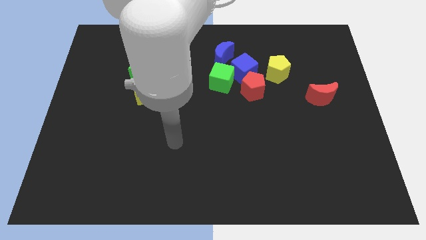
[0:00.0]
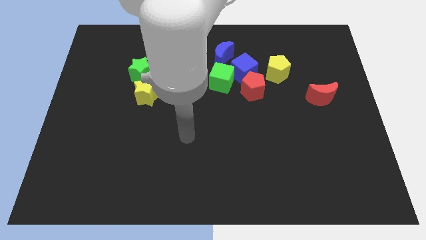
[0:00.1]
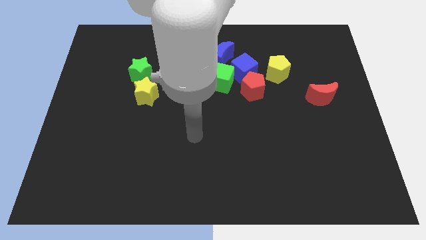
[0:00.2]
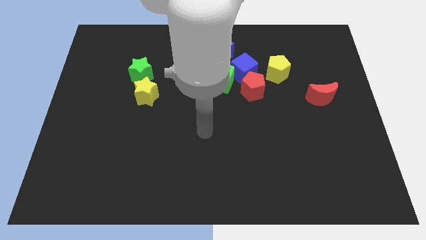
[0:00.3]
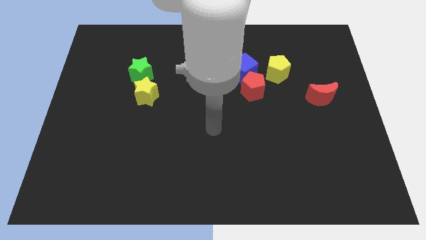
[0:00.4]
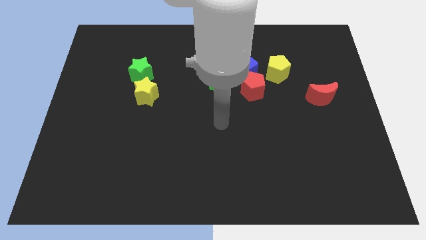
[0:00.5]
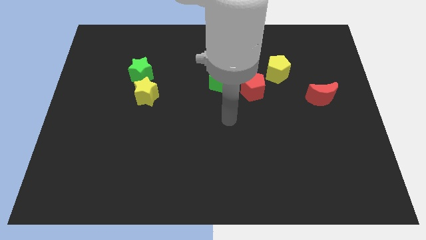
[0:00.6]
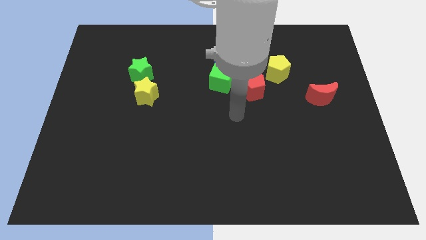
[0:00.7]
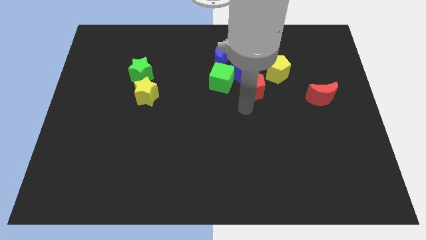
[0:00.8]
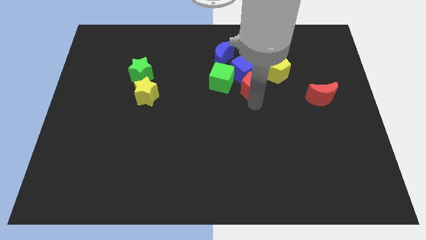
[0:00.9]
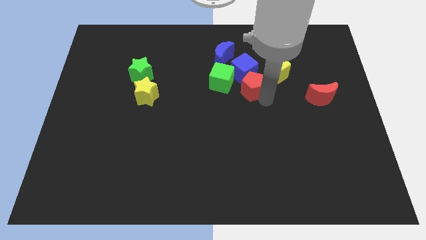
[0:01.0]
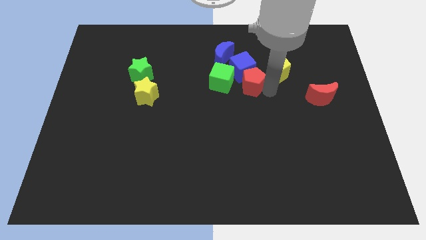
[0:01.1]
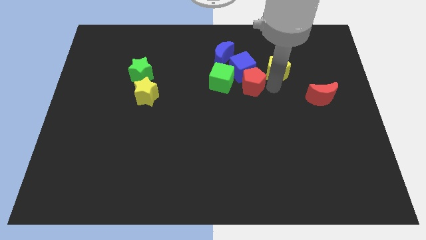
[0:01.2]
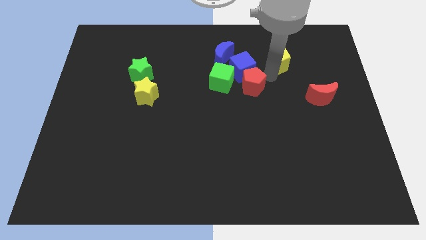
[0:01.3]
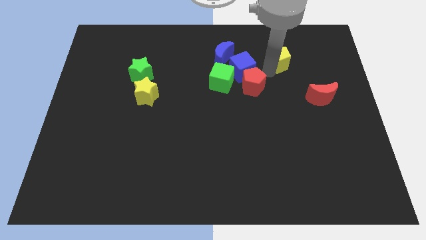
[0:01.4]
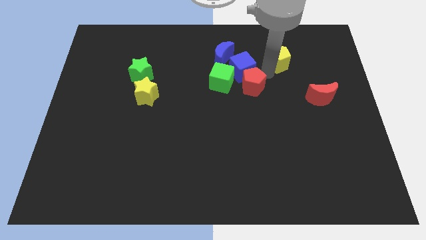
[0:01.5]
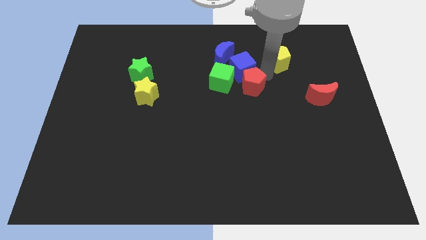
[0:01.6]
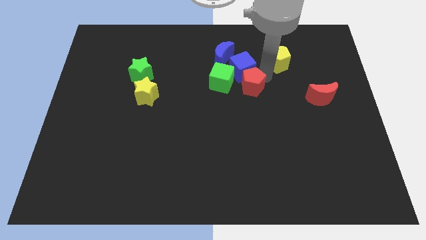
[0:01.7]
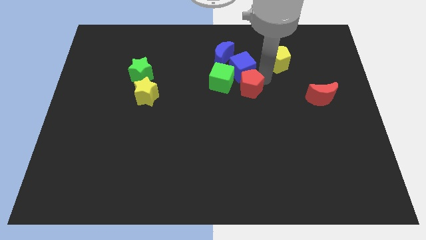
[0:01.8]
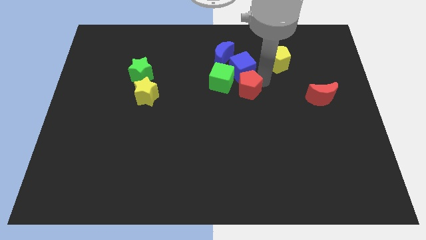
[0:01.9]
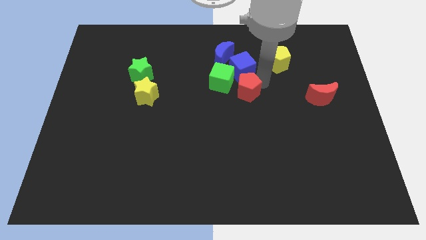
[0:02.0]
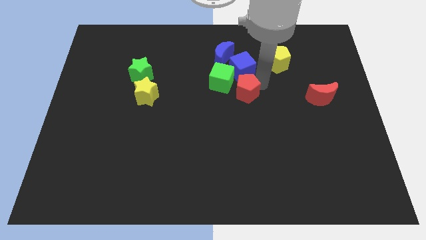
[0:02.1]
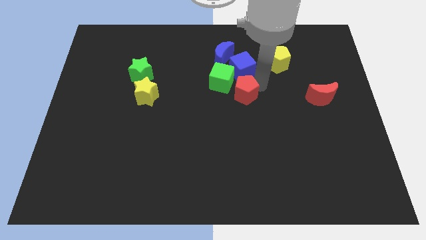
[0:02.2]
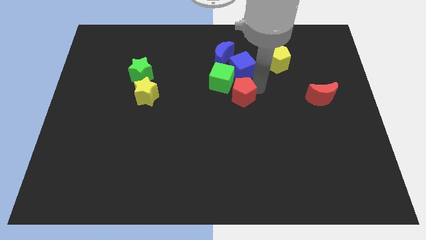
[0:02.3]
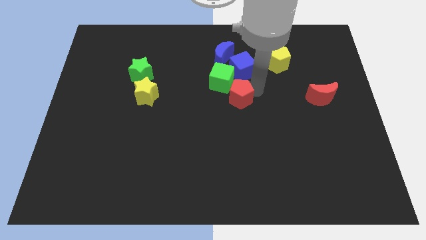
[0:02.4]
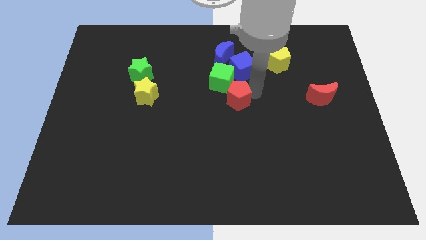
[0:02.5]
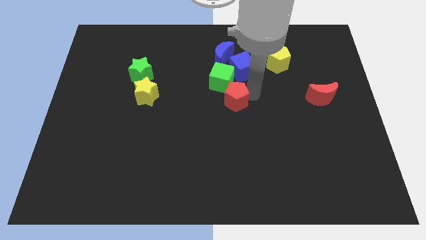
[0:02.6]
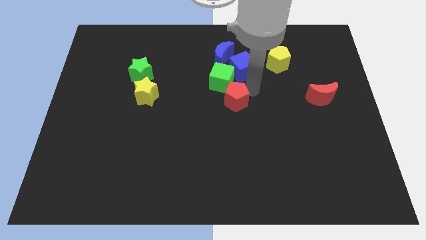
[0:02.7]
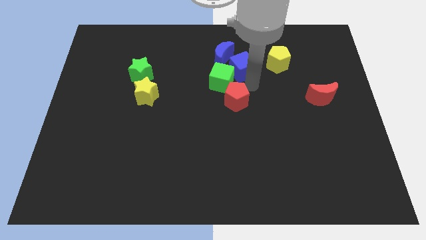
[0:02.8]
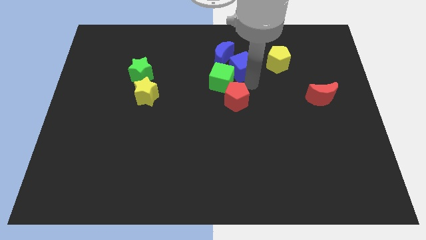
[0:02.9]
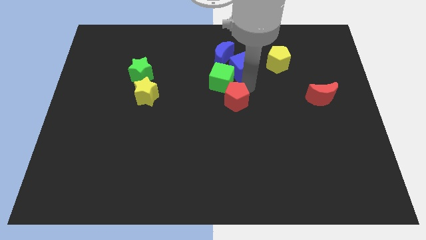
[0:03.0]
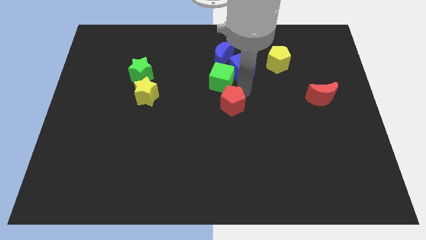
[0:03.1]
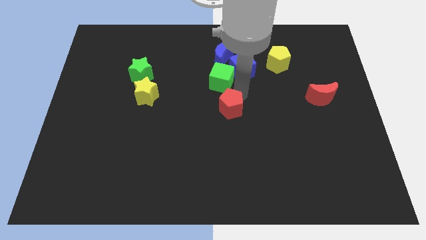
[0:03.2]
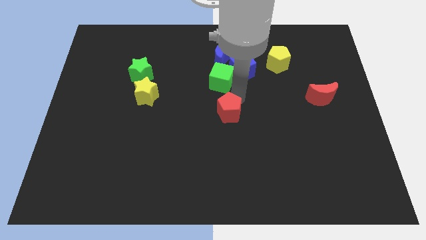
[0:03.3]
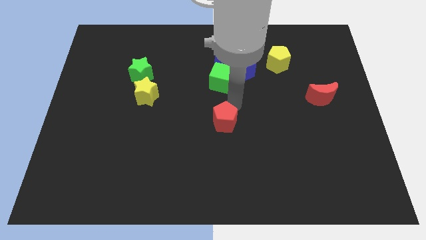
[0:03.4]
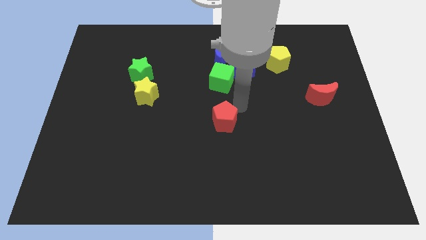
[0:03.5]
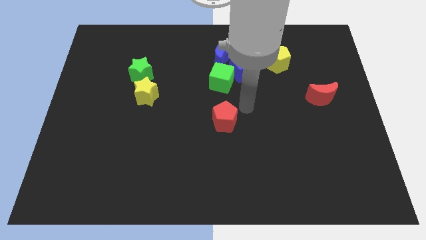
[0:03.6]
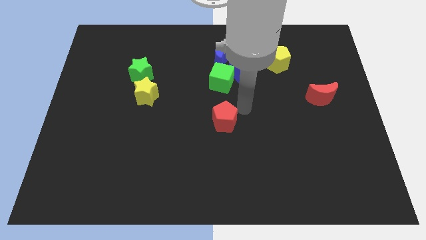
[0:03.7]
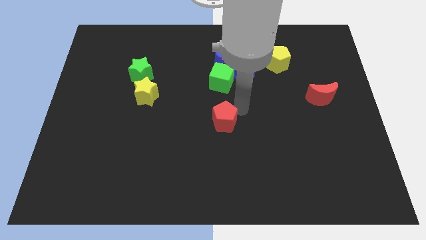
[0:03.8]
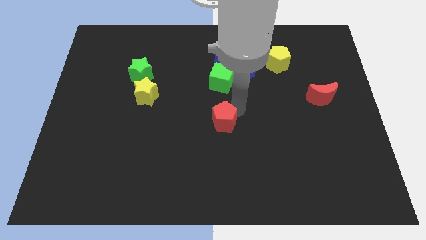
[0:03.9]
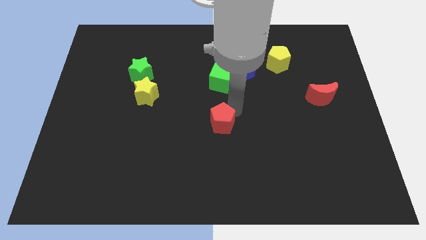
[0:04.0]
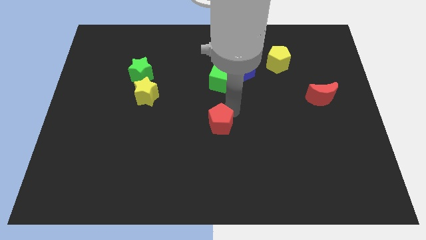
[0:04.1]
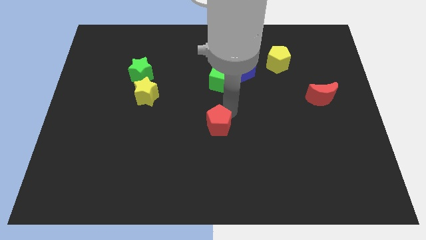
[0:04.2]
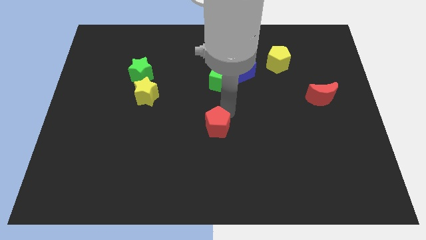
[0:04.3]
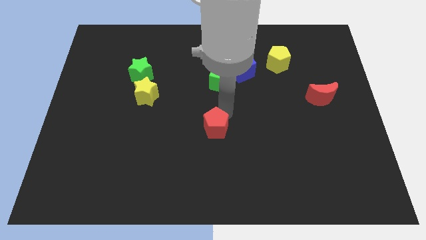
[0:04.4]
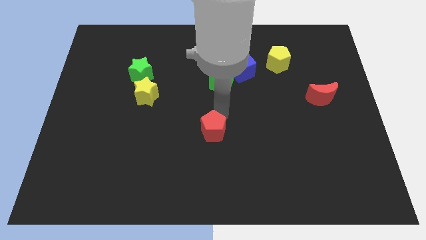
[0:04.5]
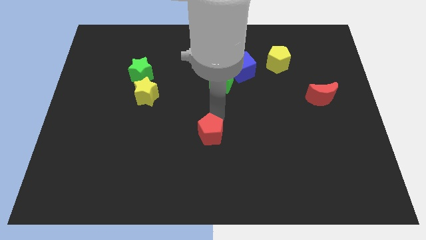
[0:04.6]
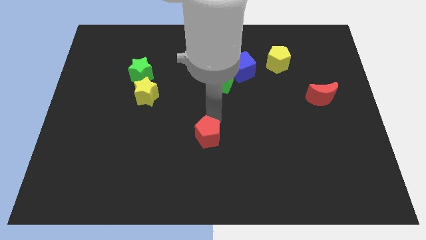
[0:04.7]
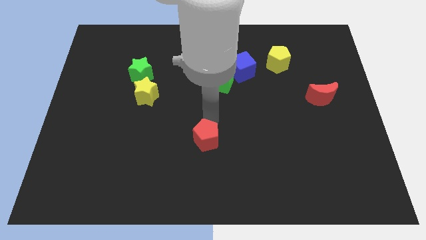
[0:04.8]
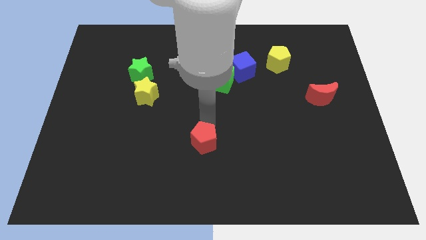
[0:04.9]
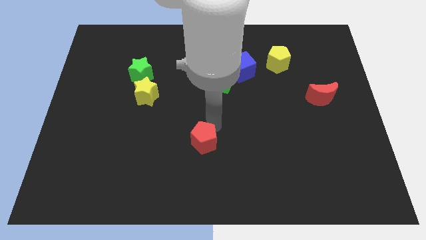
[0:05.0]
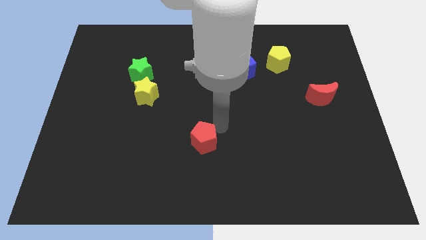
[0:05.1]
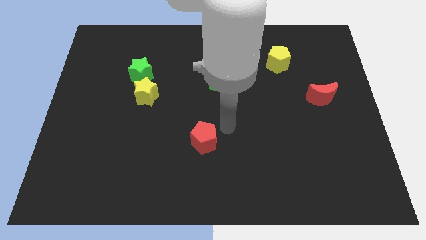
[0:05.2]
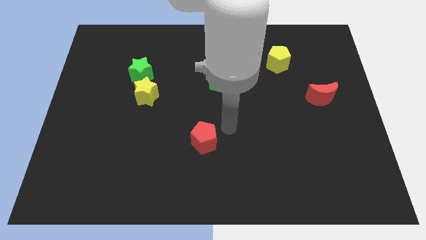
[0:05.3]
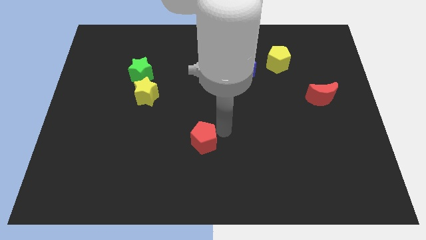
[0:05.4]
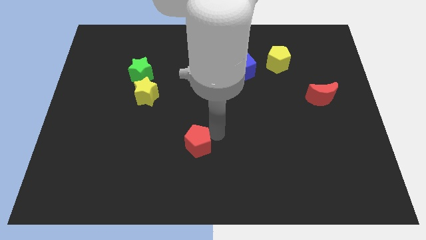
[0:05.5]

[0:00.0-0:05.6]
push the red pentagon down and then to the left

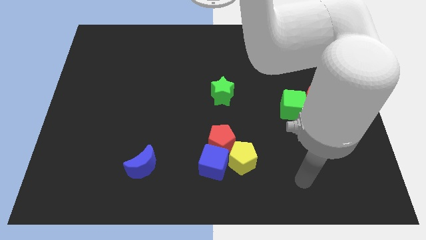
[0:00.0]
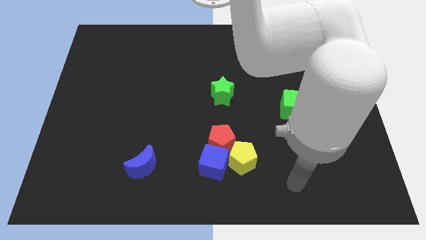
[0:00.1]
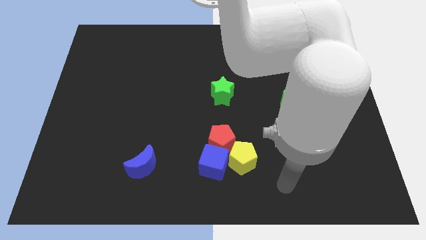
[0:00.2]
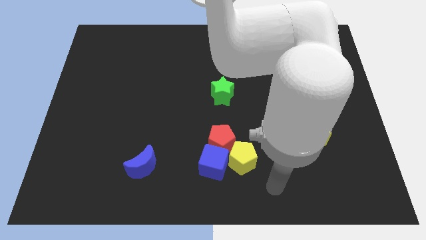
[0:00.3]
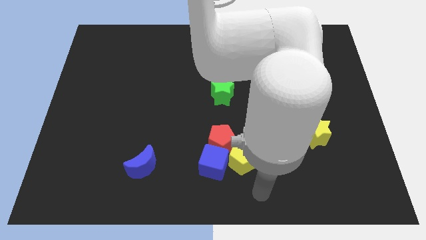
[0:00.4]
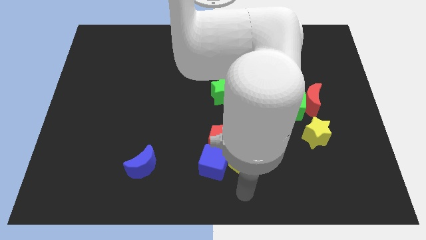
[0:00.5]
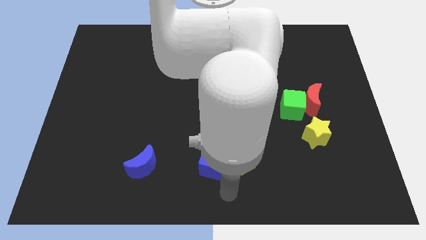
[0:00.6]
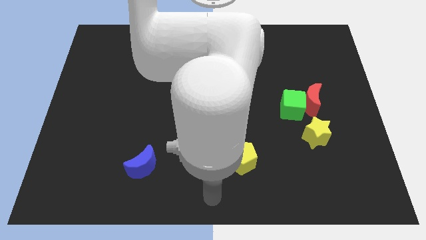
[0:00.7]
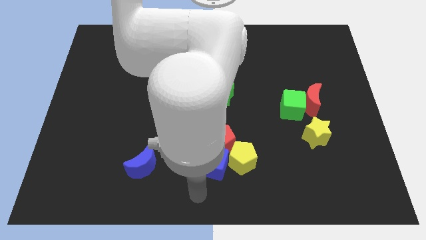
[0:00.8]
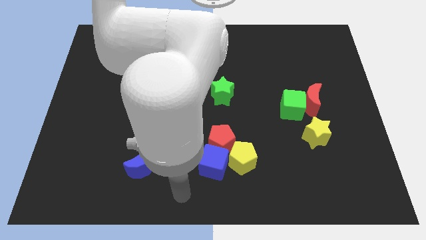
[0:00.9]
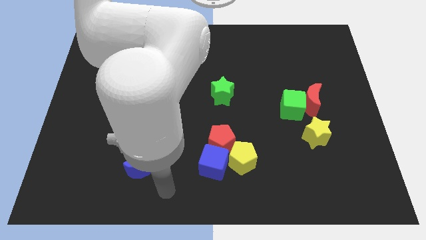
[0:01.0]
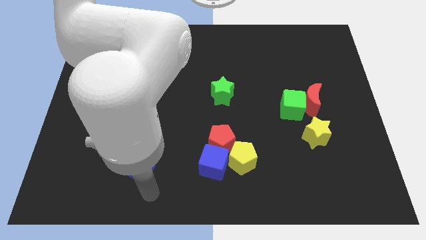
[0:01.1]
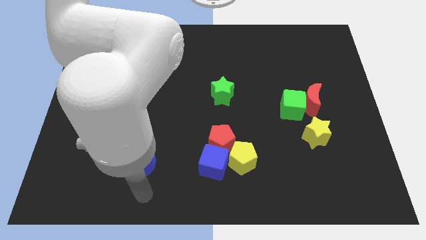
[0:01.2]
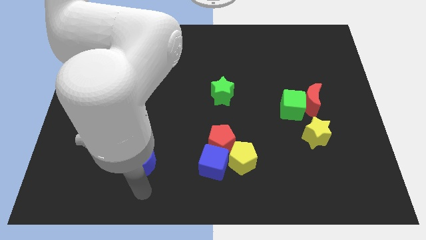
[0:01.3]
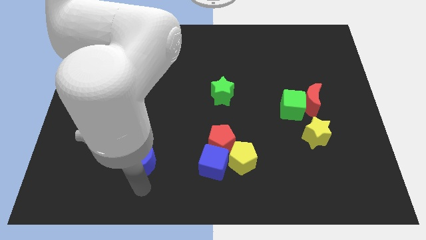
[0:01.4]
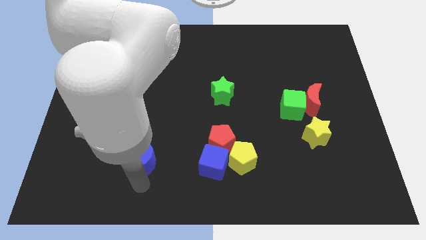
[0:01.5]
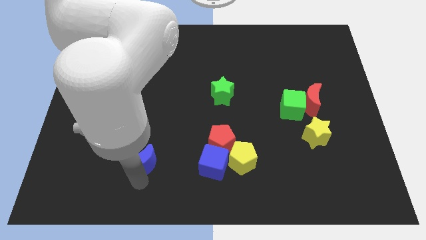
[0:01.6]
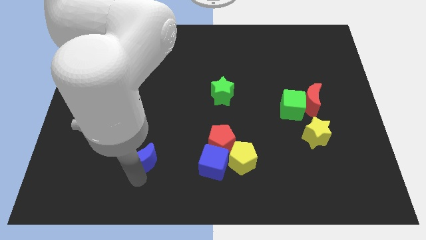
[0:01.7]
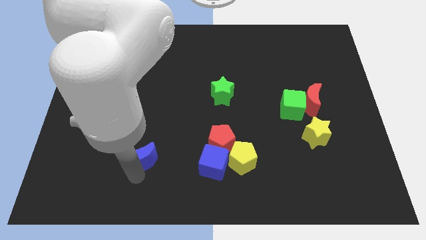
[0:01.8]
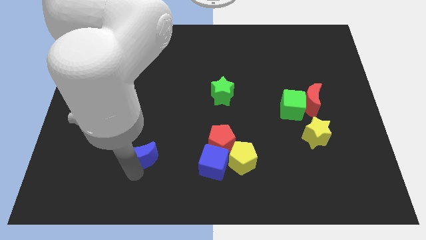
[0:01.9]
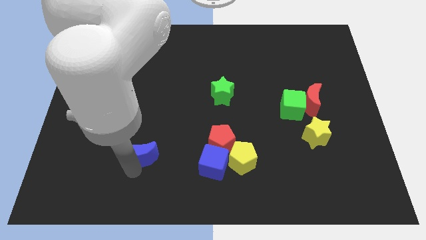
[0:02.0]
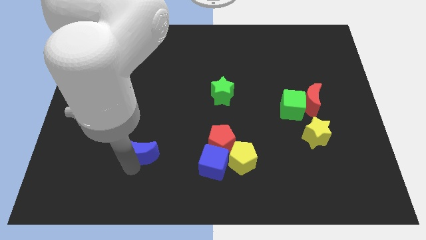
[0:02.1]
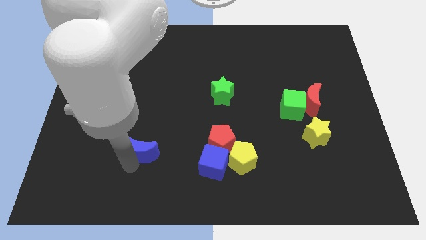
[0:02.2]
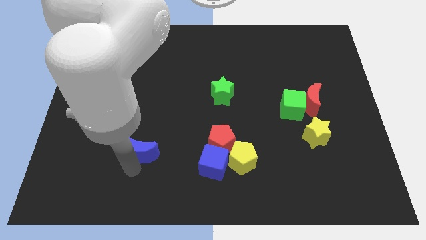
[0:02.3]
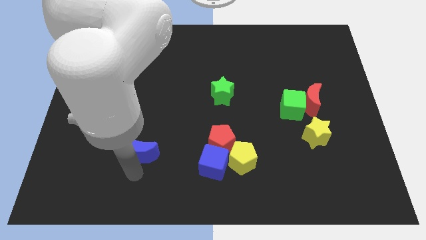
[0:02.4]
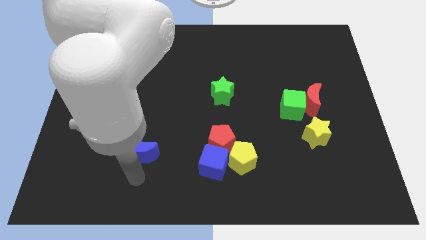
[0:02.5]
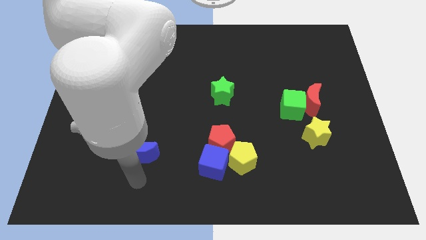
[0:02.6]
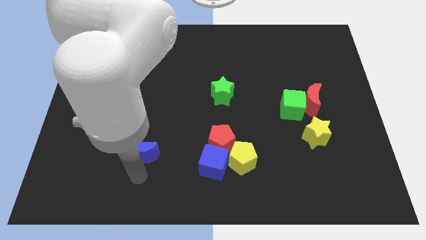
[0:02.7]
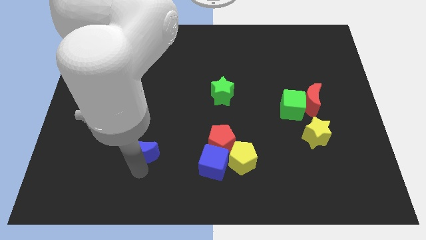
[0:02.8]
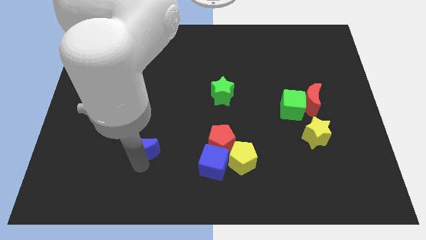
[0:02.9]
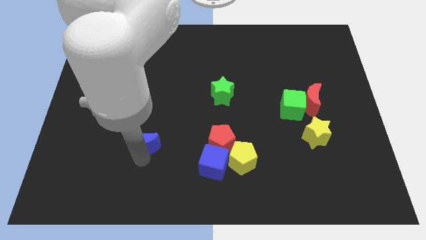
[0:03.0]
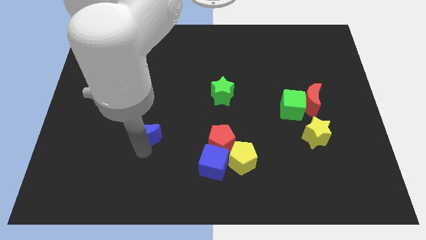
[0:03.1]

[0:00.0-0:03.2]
slightly push the blue moon up
